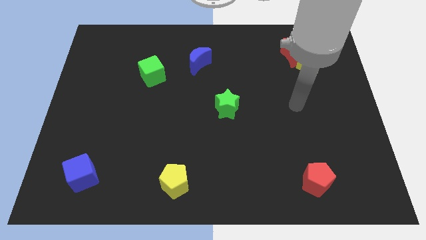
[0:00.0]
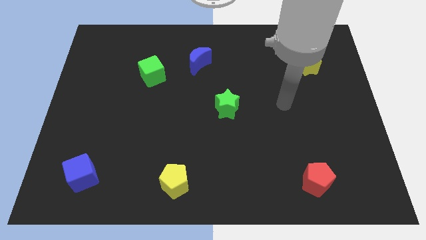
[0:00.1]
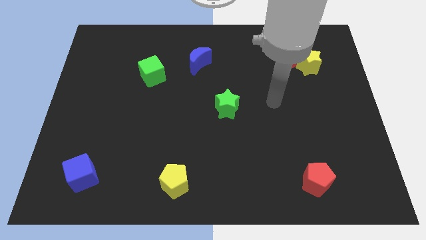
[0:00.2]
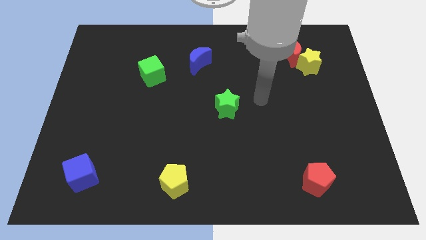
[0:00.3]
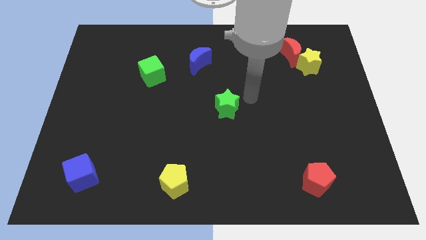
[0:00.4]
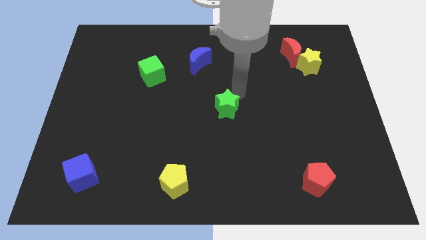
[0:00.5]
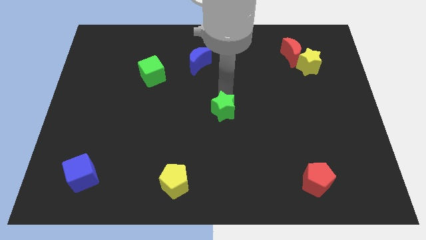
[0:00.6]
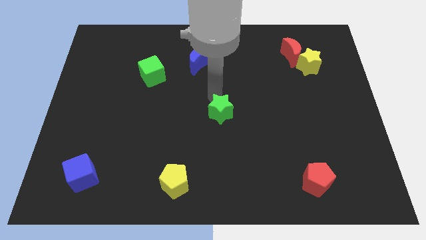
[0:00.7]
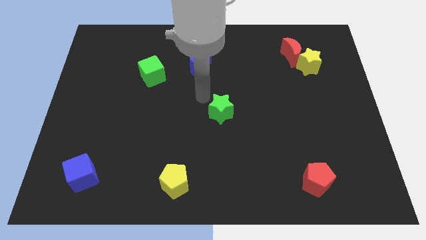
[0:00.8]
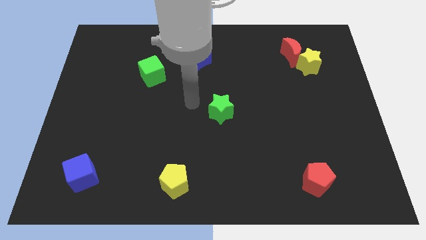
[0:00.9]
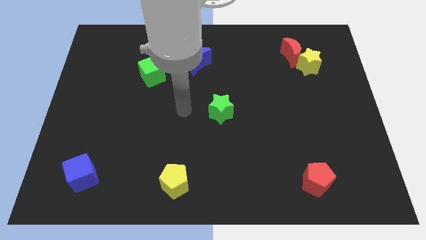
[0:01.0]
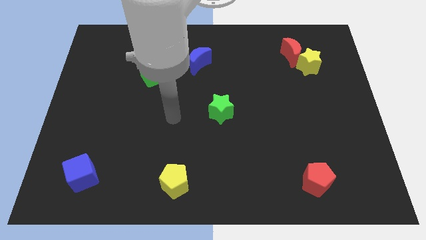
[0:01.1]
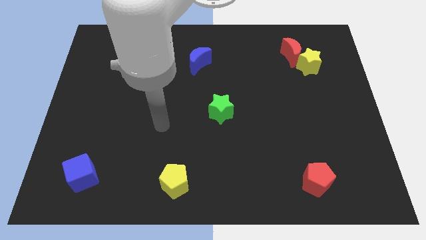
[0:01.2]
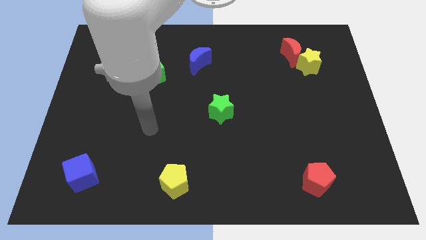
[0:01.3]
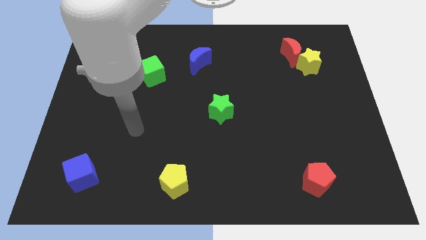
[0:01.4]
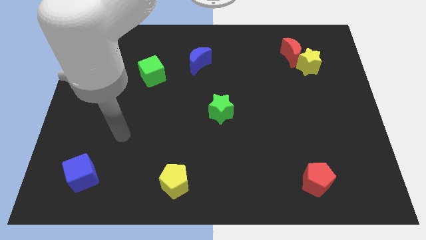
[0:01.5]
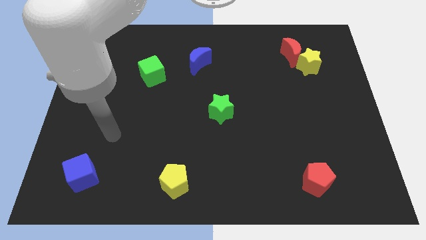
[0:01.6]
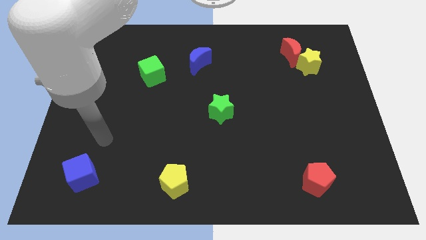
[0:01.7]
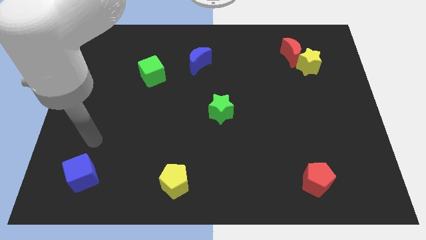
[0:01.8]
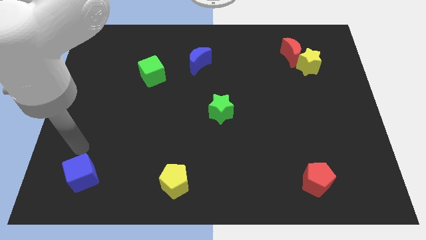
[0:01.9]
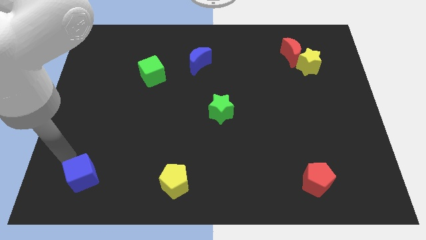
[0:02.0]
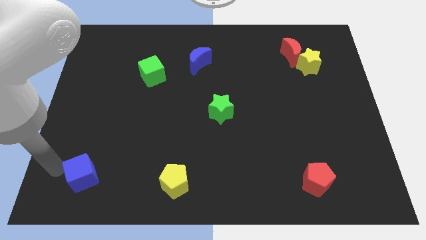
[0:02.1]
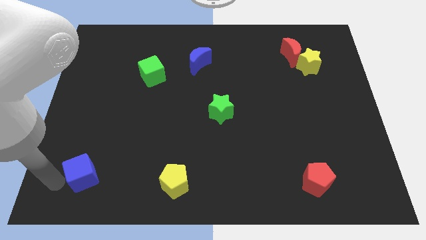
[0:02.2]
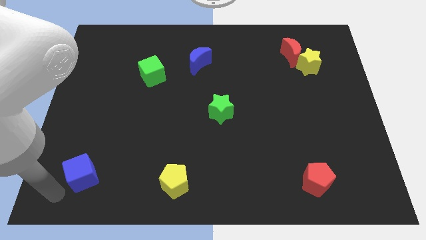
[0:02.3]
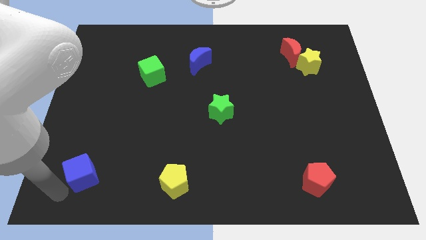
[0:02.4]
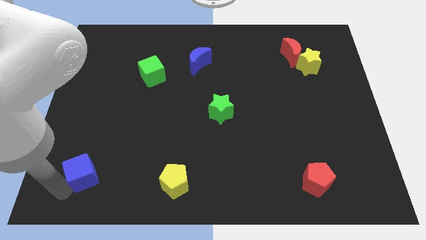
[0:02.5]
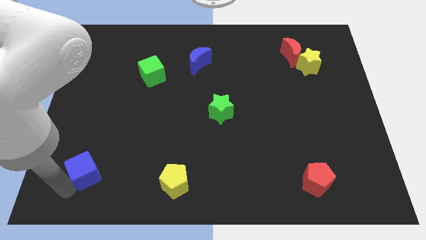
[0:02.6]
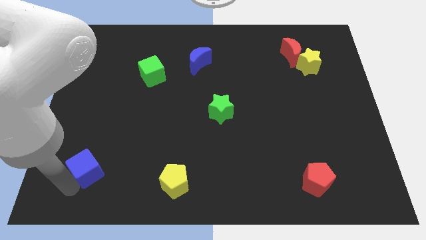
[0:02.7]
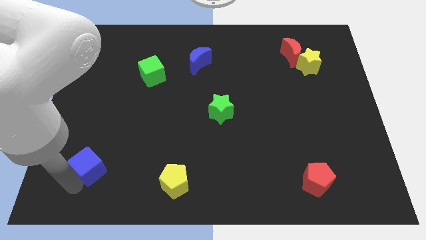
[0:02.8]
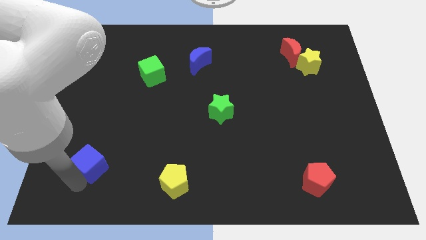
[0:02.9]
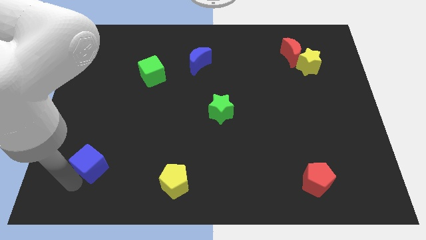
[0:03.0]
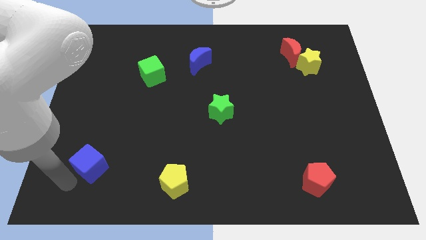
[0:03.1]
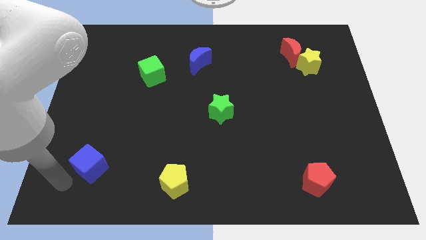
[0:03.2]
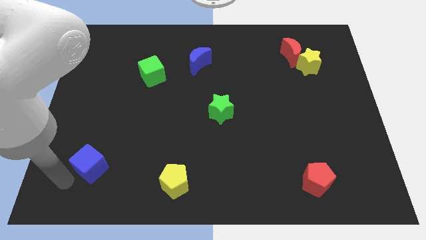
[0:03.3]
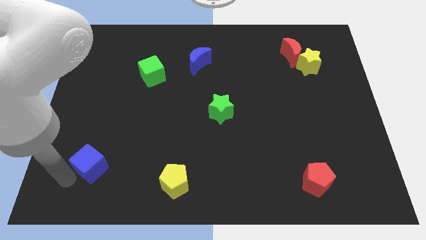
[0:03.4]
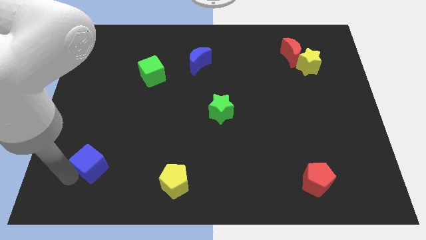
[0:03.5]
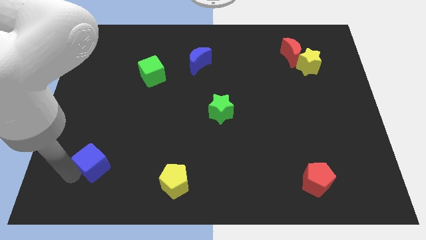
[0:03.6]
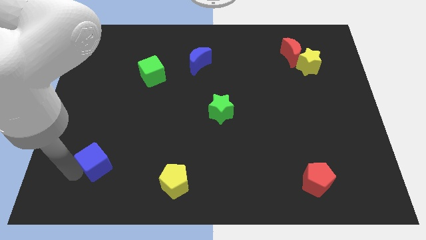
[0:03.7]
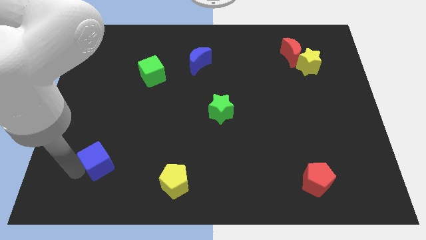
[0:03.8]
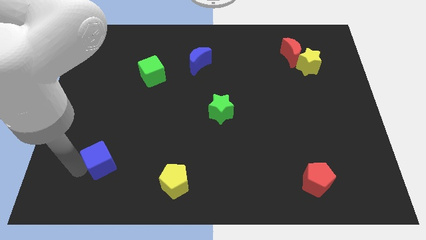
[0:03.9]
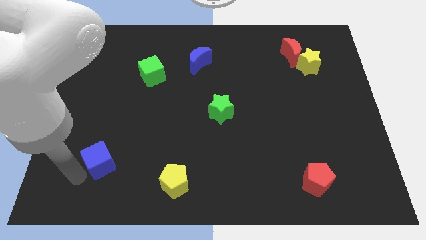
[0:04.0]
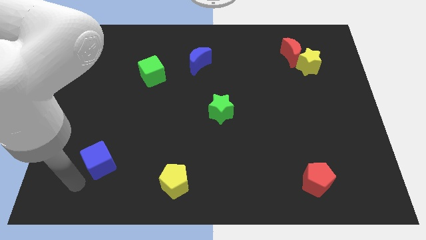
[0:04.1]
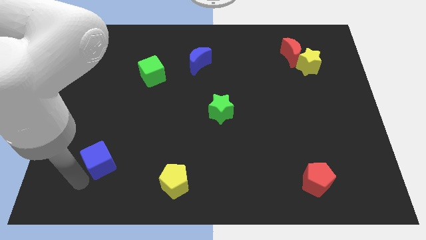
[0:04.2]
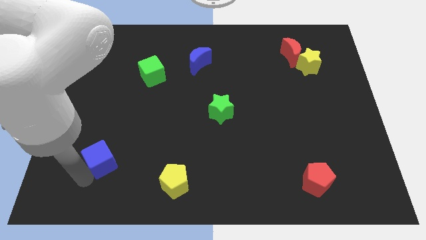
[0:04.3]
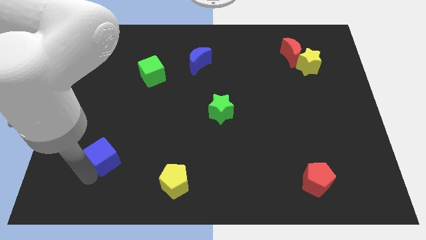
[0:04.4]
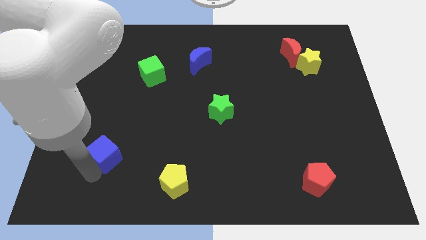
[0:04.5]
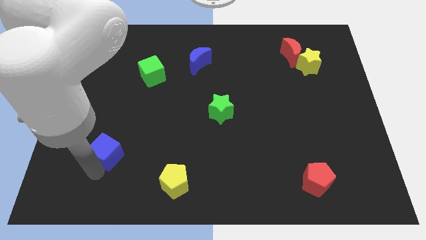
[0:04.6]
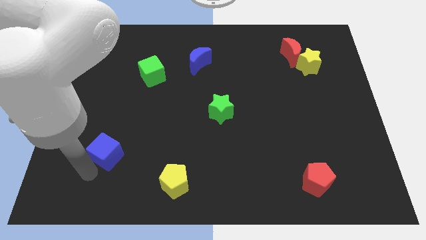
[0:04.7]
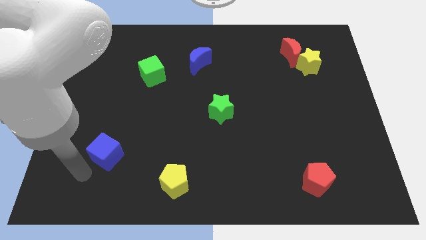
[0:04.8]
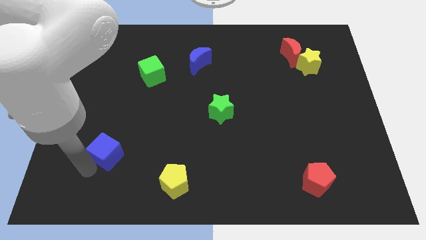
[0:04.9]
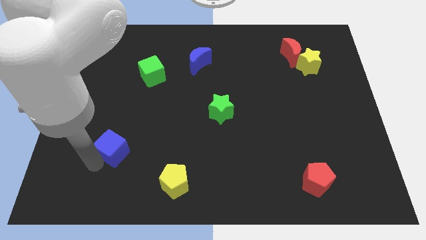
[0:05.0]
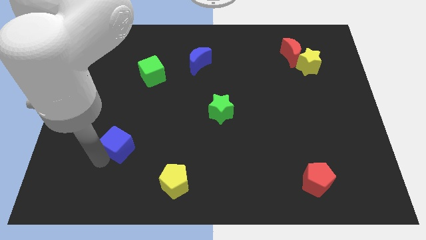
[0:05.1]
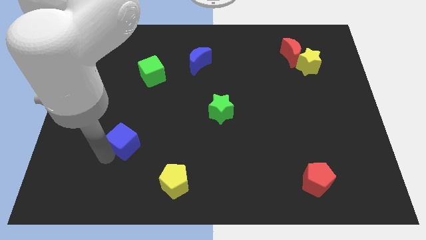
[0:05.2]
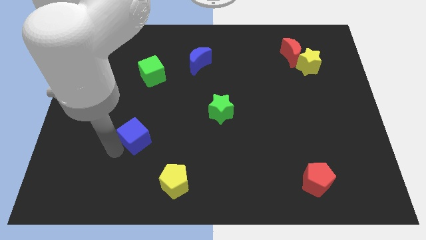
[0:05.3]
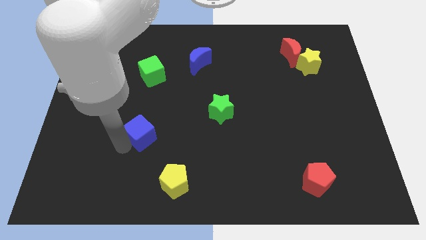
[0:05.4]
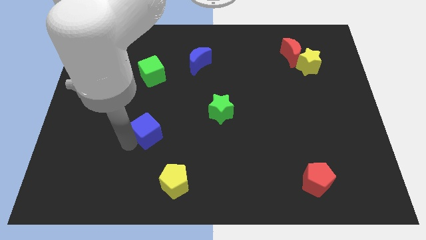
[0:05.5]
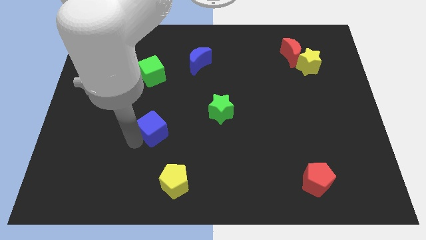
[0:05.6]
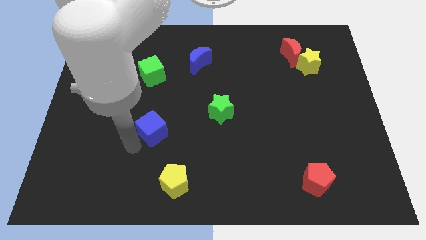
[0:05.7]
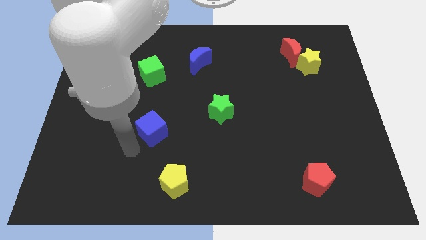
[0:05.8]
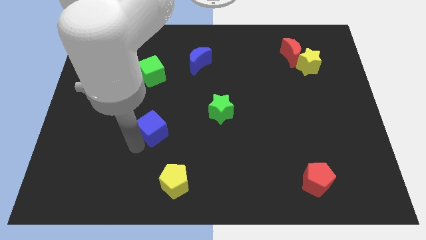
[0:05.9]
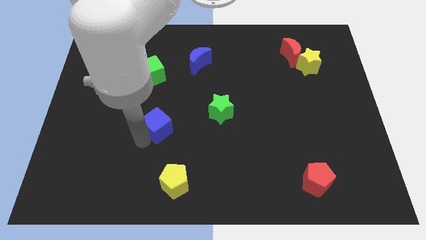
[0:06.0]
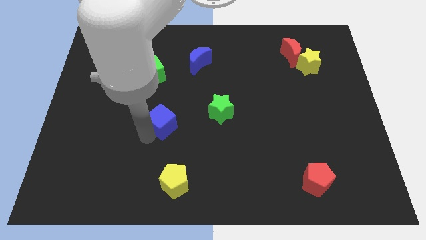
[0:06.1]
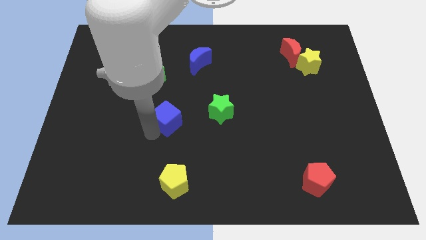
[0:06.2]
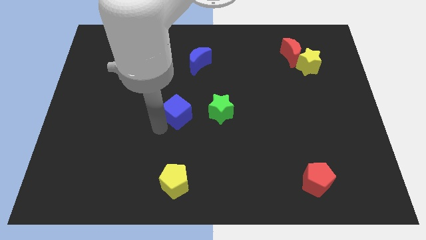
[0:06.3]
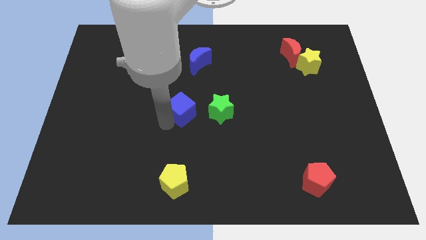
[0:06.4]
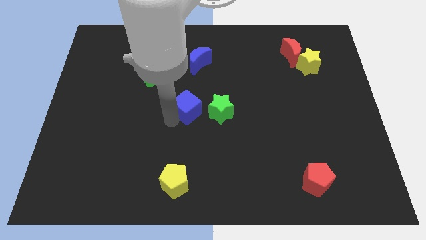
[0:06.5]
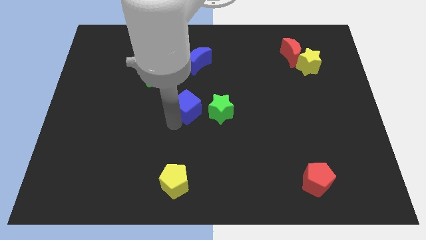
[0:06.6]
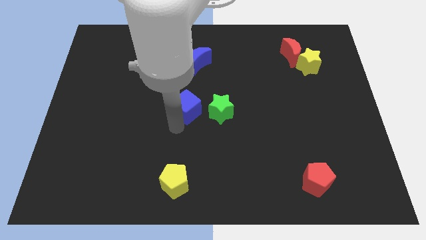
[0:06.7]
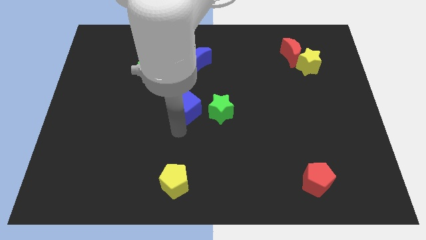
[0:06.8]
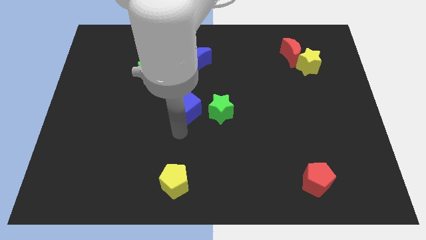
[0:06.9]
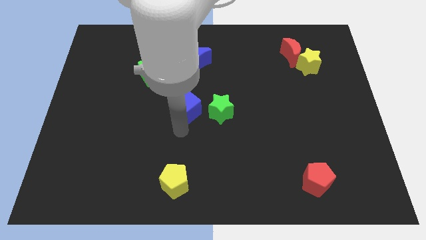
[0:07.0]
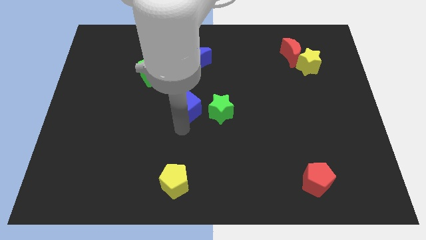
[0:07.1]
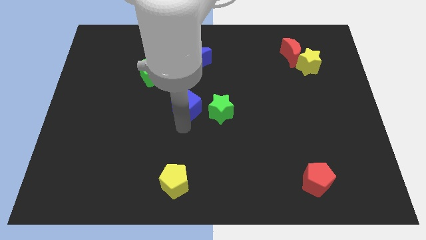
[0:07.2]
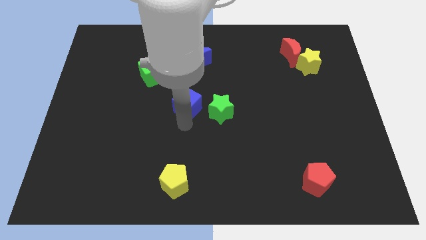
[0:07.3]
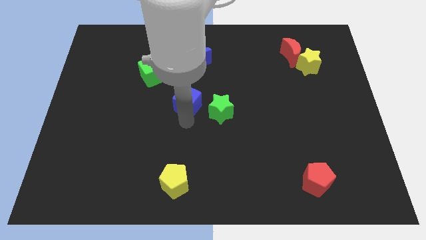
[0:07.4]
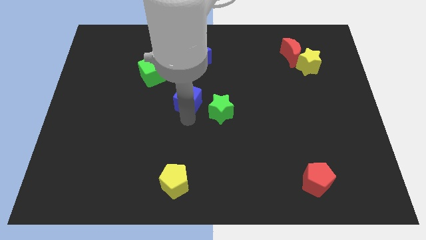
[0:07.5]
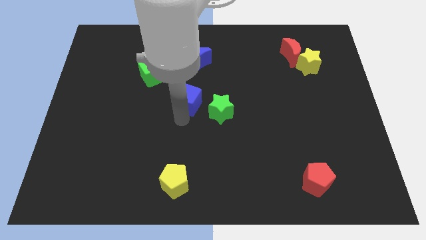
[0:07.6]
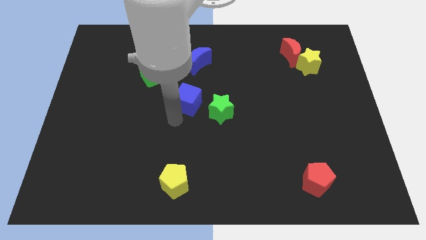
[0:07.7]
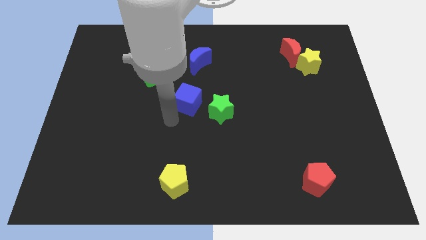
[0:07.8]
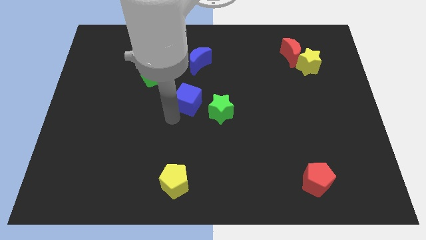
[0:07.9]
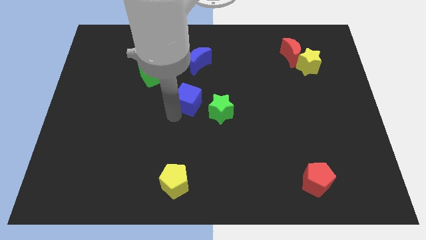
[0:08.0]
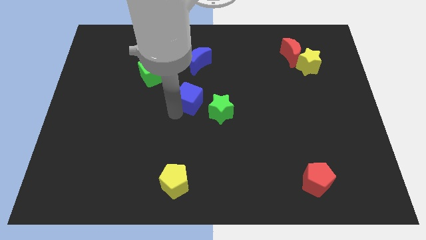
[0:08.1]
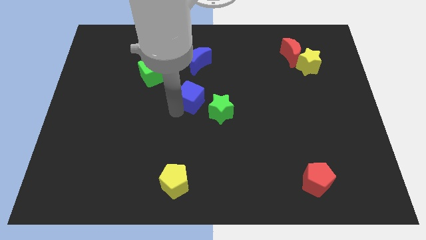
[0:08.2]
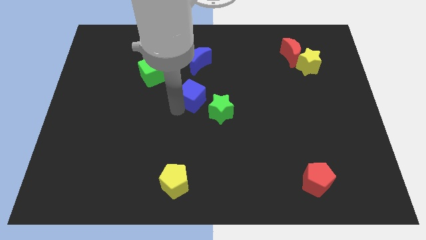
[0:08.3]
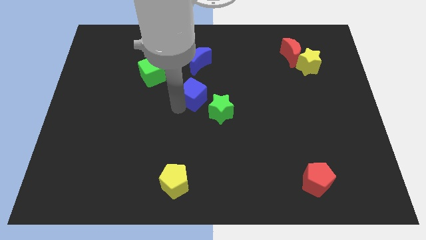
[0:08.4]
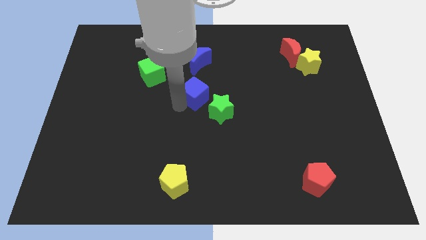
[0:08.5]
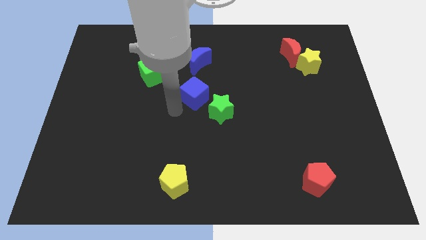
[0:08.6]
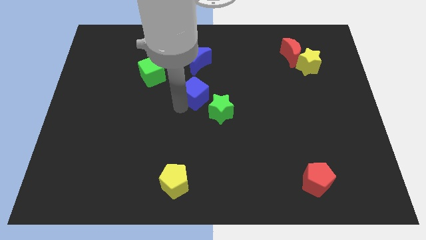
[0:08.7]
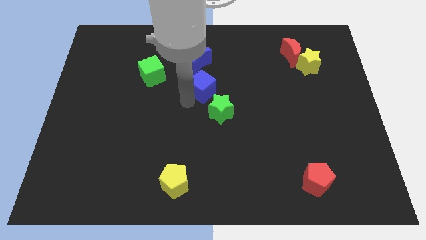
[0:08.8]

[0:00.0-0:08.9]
put the blue cube to the top side of the green star
